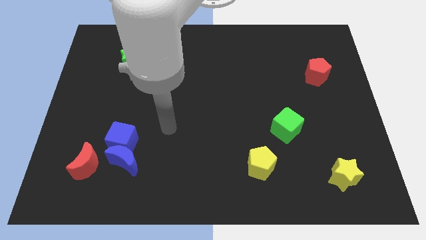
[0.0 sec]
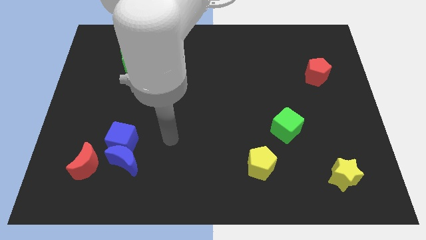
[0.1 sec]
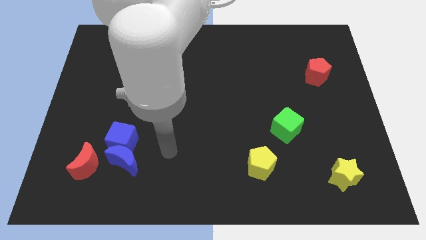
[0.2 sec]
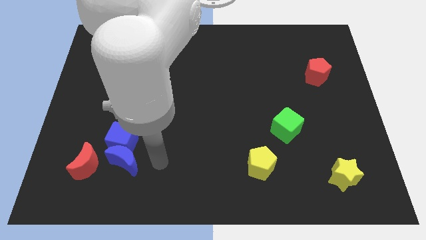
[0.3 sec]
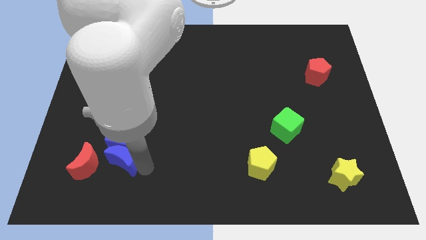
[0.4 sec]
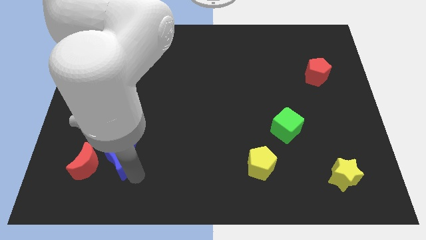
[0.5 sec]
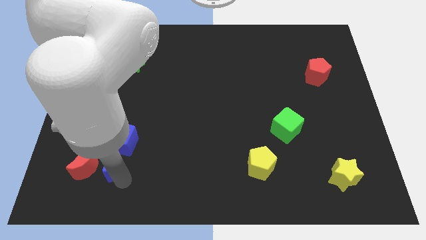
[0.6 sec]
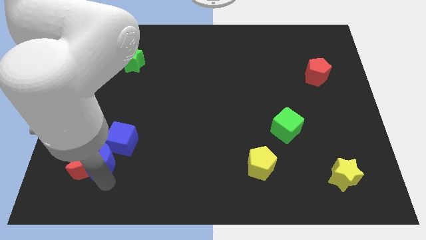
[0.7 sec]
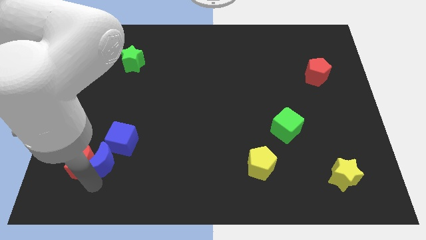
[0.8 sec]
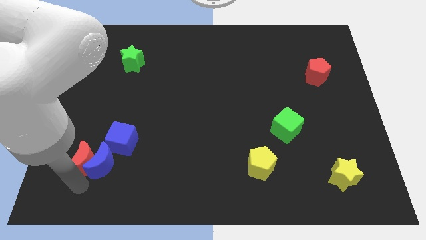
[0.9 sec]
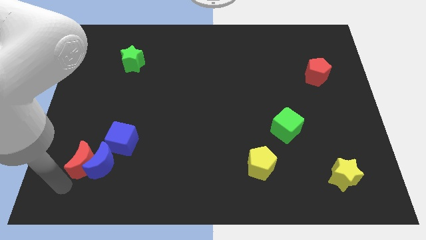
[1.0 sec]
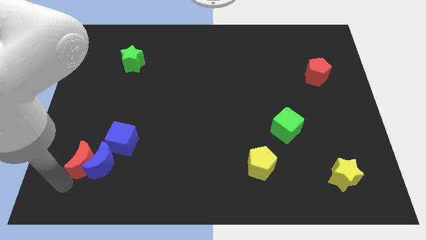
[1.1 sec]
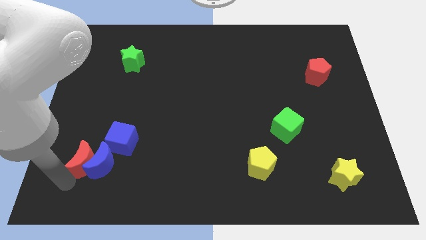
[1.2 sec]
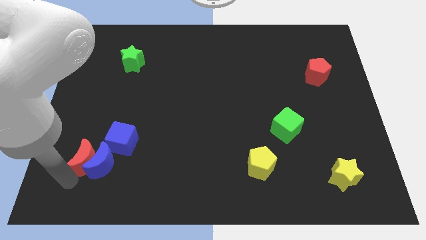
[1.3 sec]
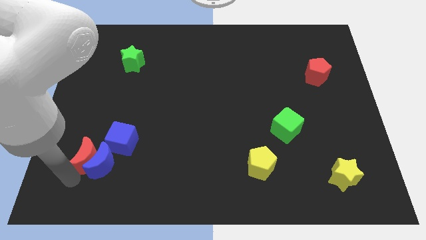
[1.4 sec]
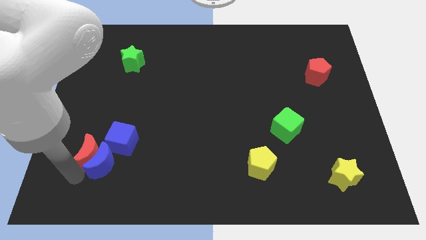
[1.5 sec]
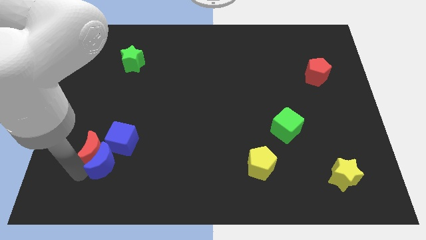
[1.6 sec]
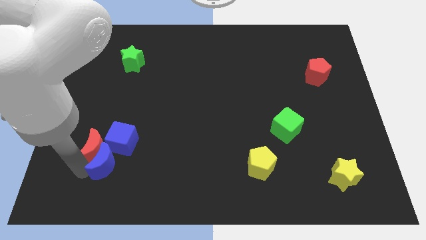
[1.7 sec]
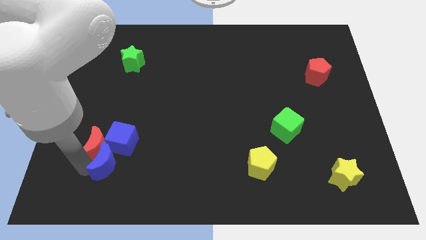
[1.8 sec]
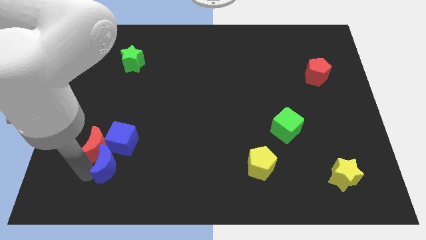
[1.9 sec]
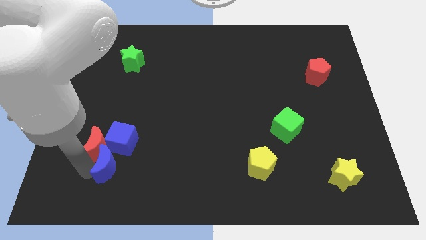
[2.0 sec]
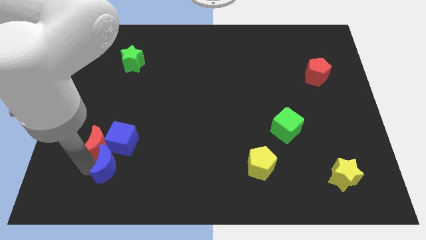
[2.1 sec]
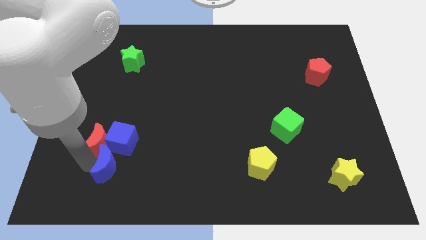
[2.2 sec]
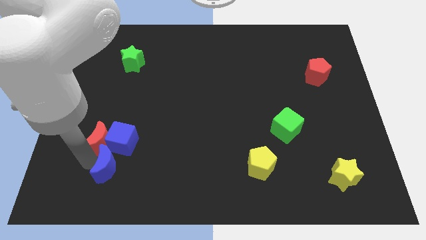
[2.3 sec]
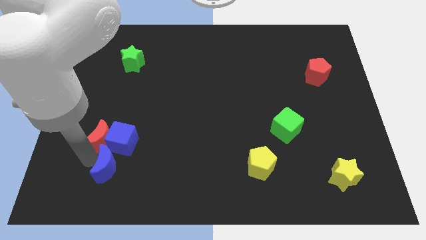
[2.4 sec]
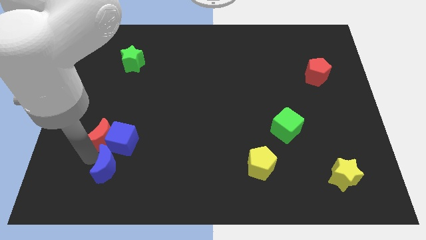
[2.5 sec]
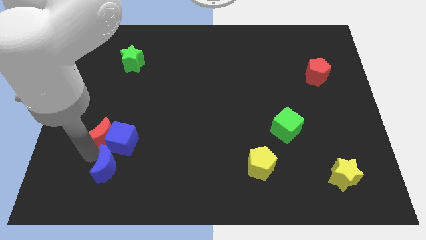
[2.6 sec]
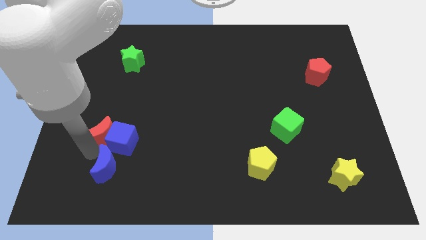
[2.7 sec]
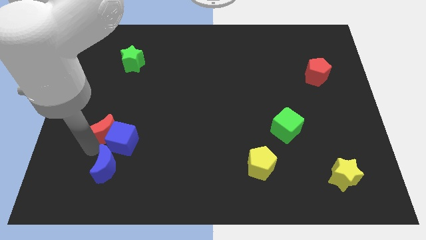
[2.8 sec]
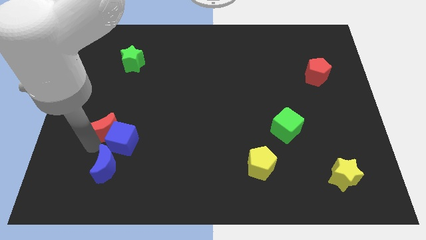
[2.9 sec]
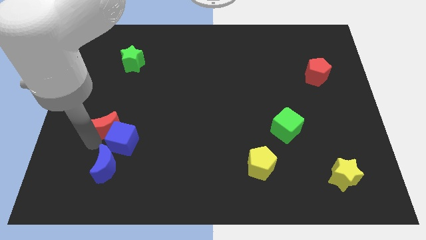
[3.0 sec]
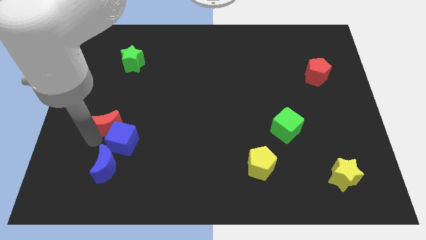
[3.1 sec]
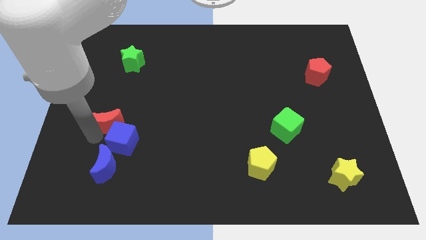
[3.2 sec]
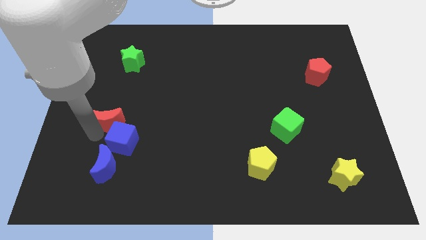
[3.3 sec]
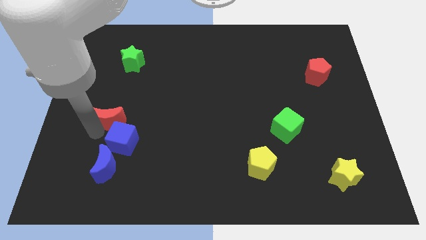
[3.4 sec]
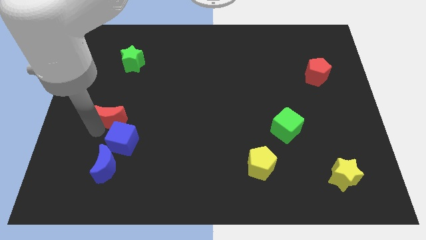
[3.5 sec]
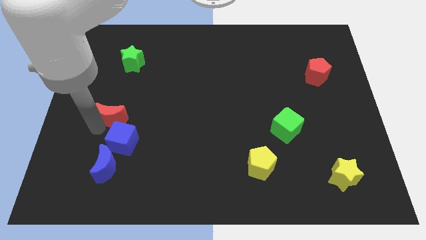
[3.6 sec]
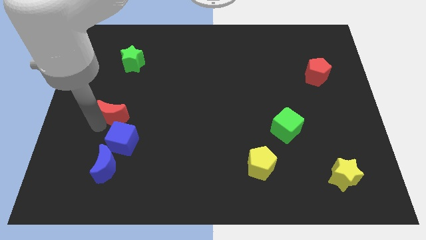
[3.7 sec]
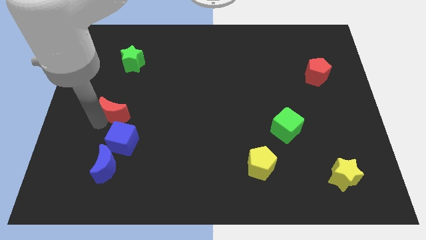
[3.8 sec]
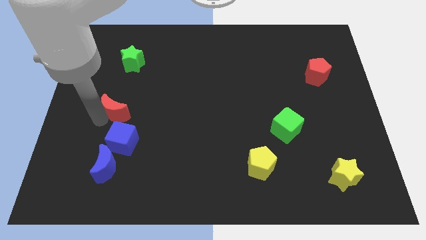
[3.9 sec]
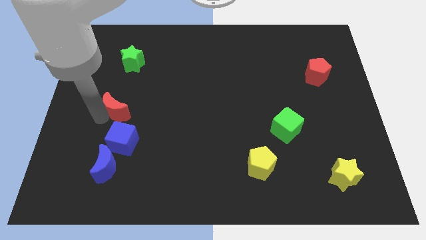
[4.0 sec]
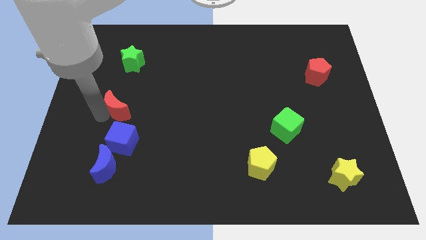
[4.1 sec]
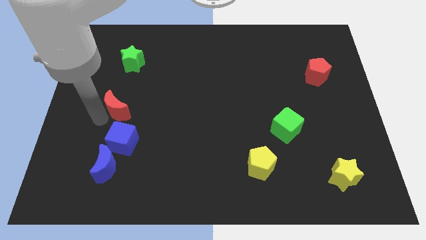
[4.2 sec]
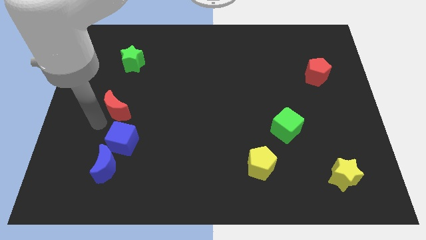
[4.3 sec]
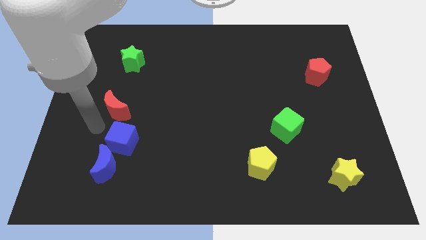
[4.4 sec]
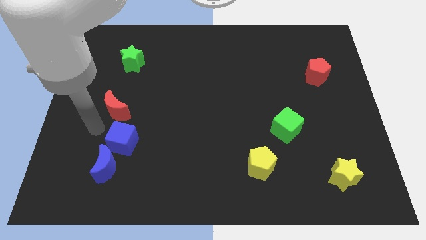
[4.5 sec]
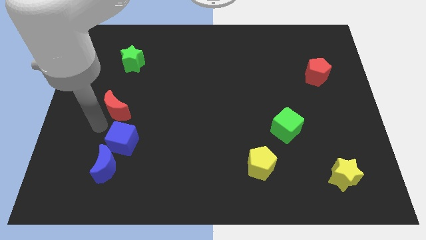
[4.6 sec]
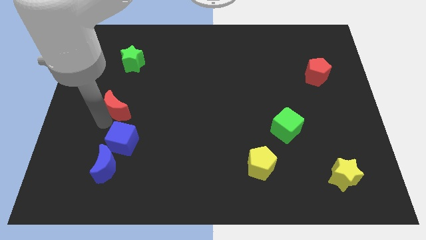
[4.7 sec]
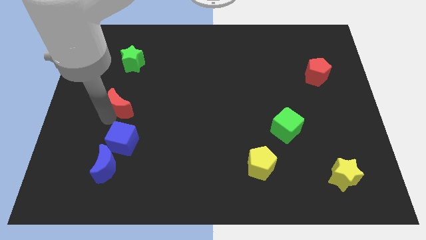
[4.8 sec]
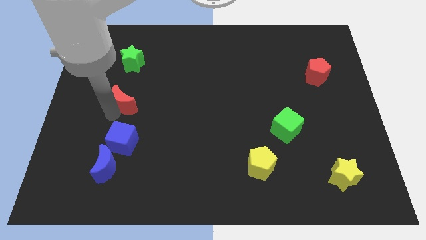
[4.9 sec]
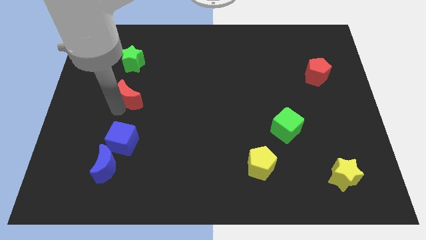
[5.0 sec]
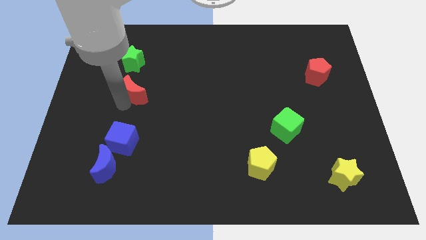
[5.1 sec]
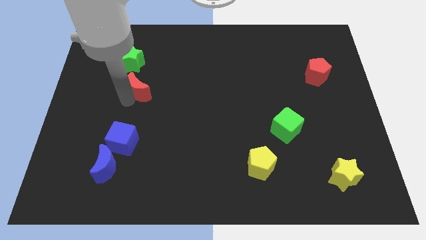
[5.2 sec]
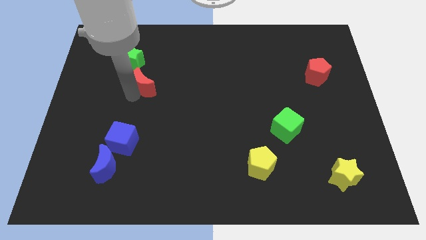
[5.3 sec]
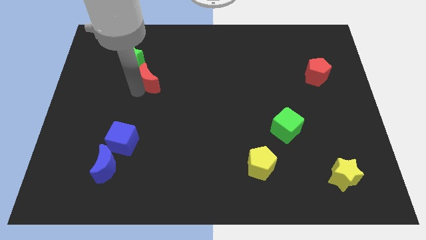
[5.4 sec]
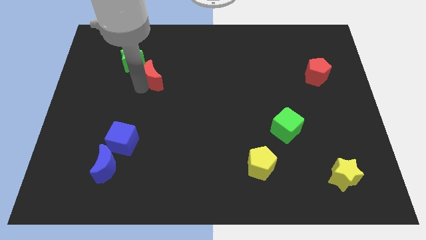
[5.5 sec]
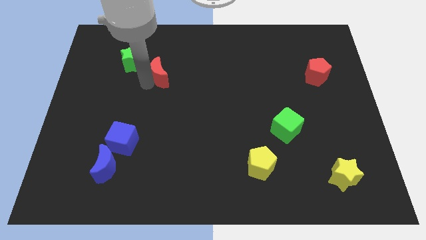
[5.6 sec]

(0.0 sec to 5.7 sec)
slide the red moon to the right of the green star
